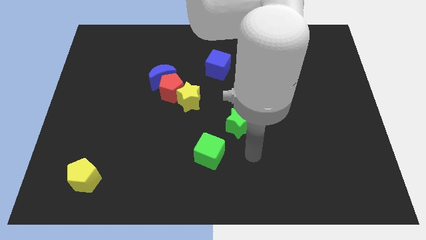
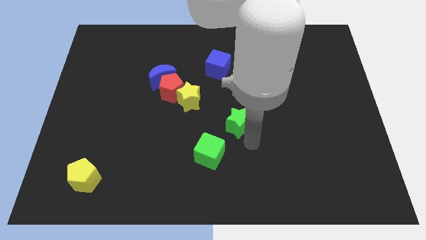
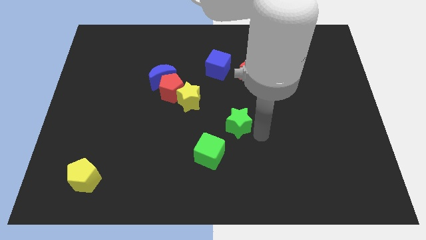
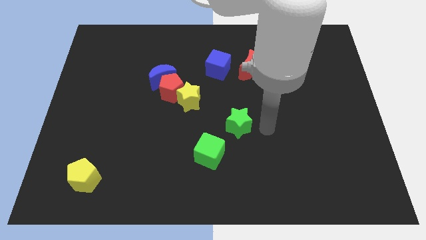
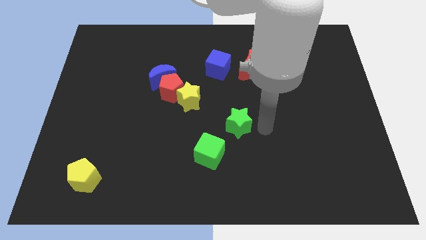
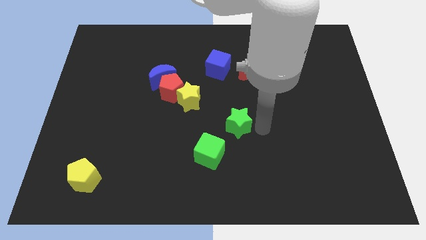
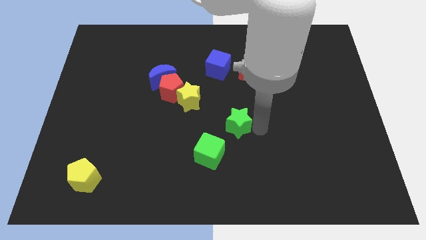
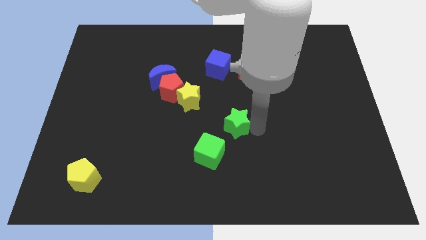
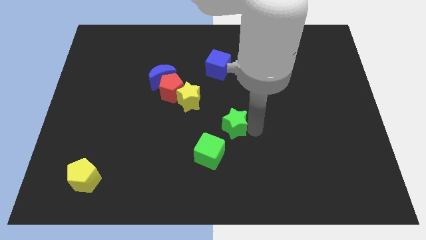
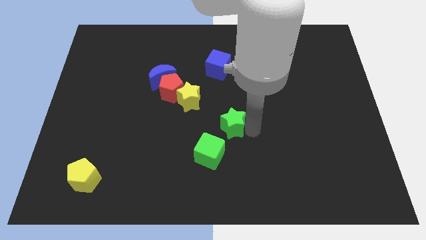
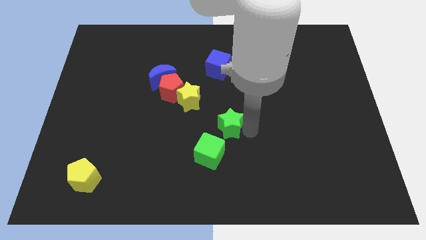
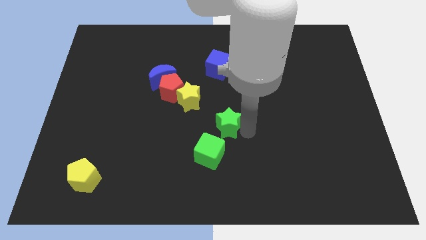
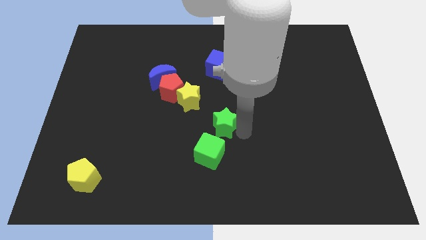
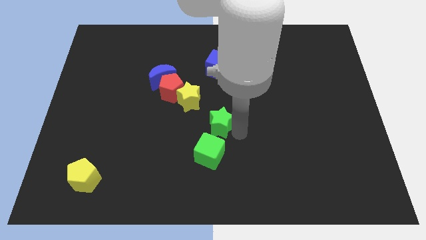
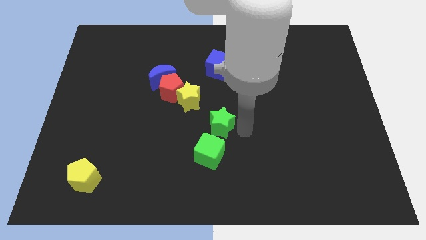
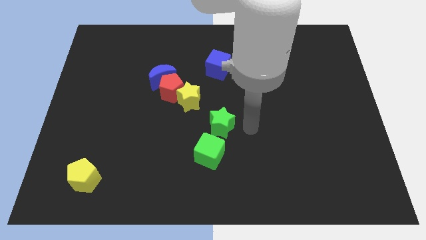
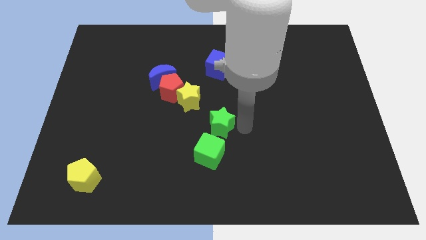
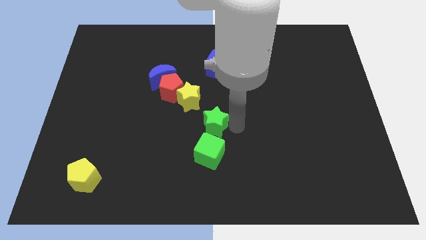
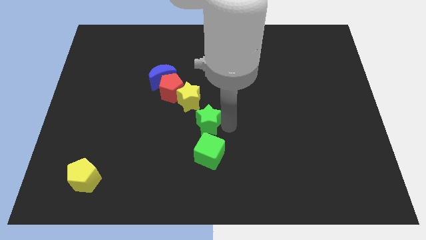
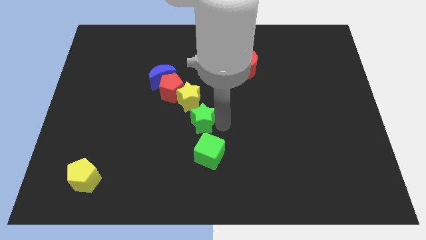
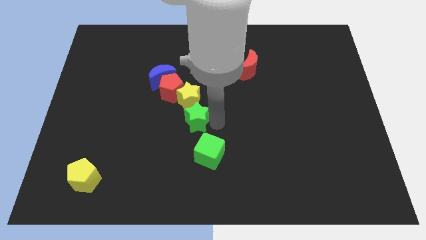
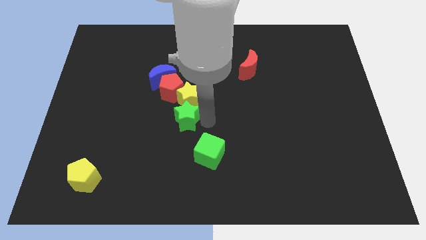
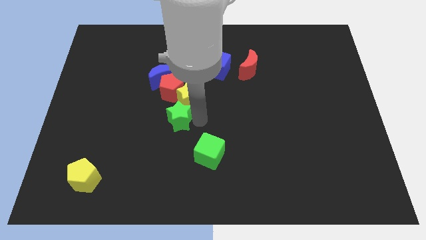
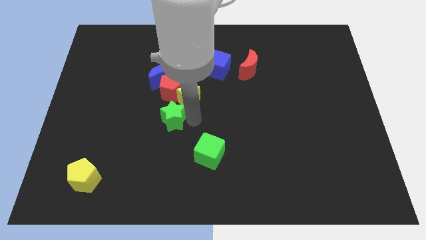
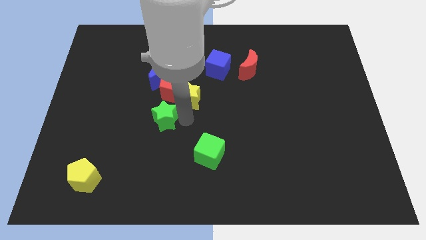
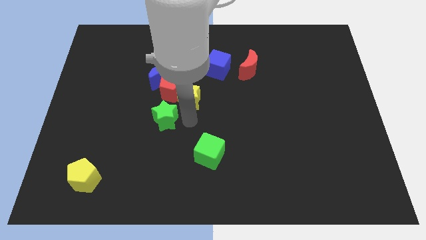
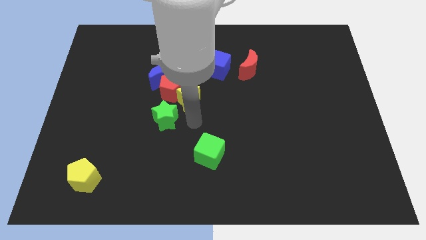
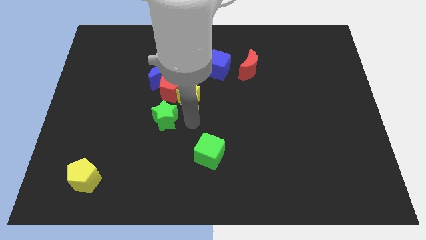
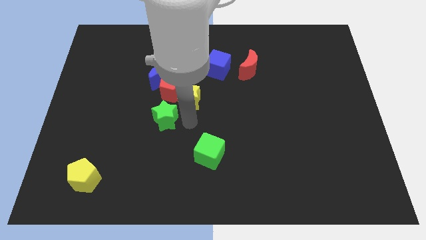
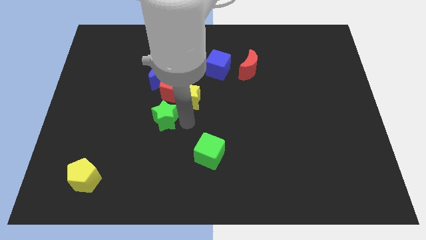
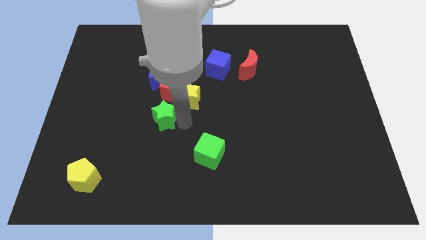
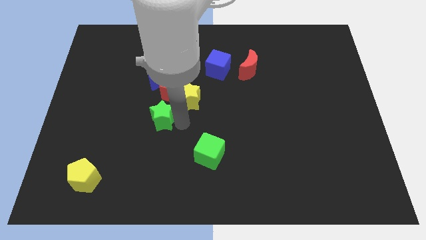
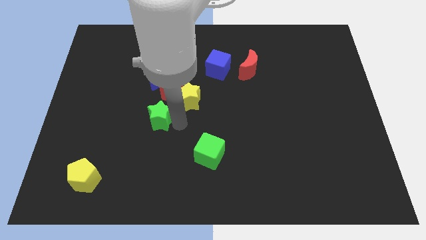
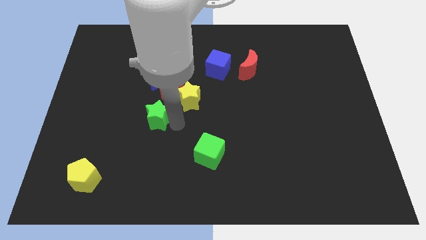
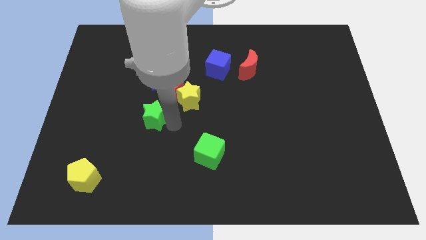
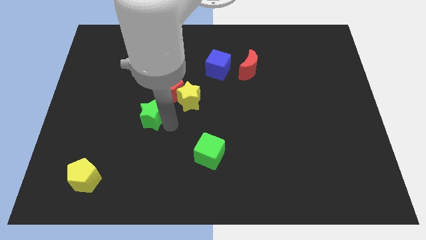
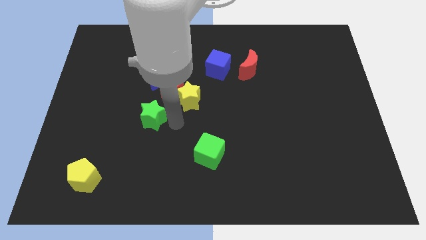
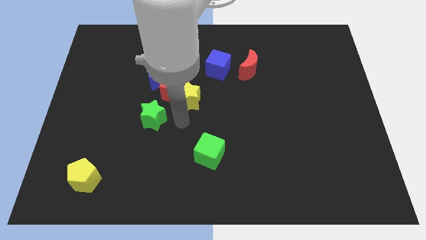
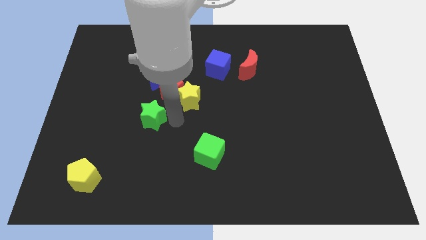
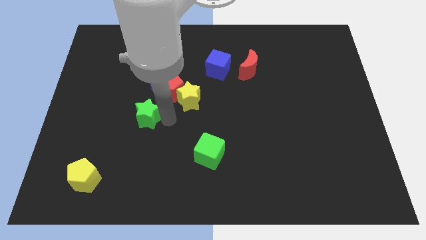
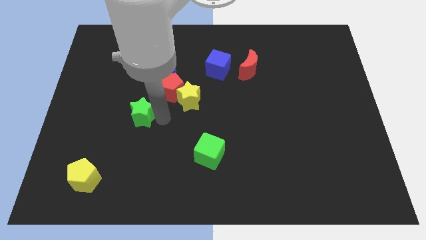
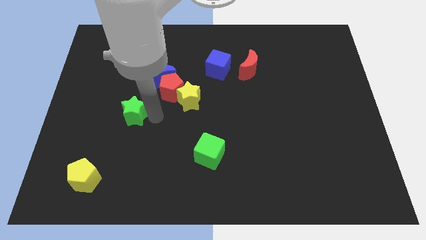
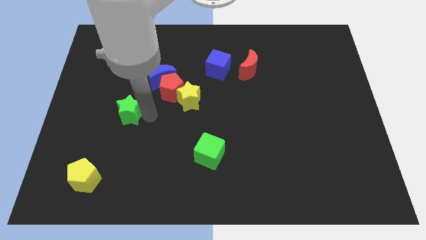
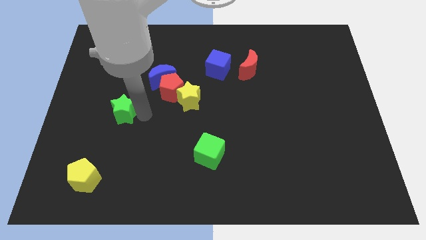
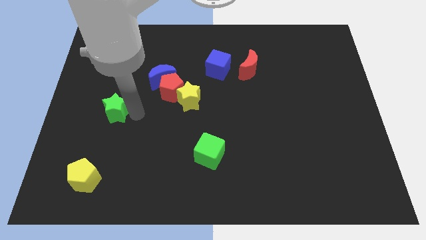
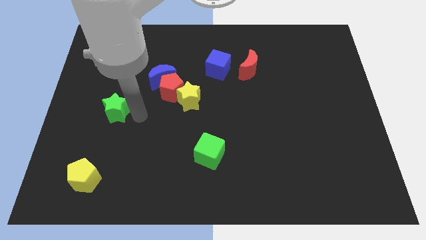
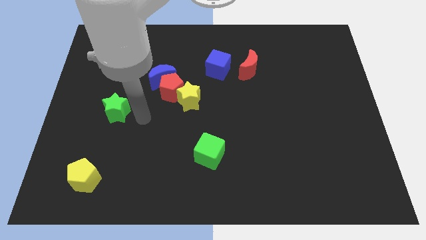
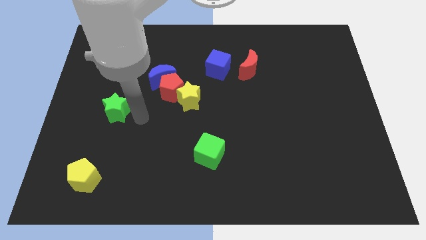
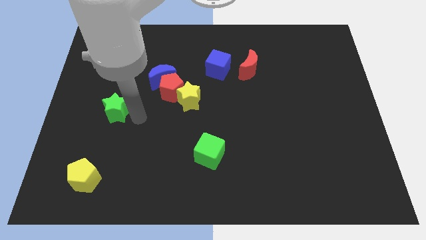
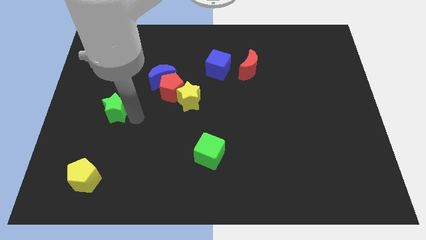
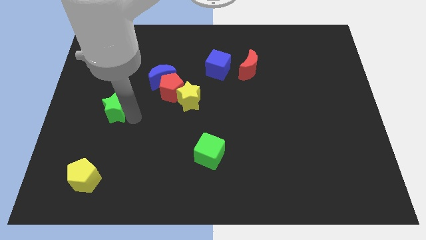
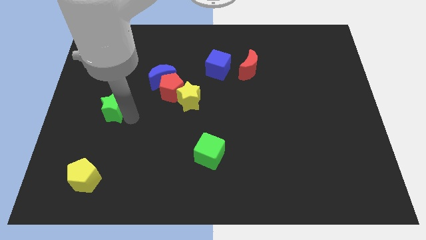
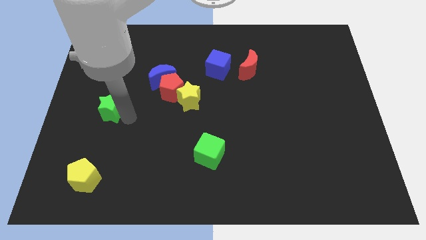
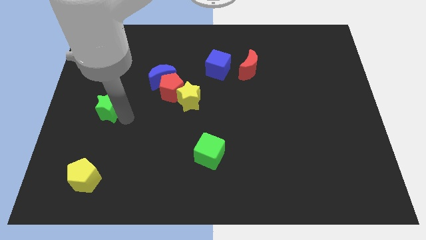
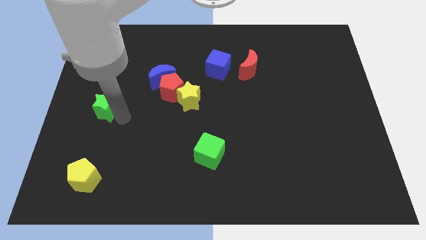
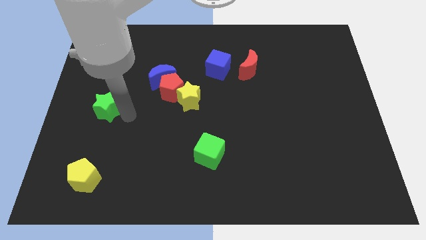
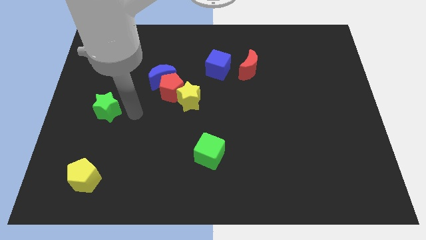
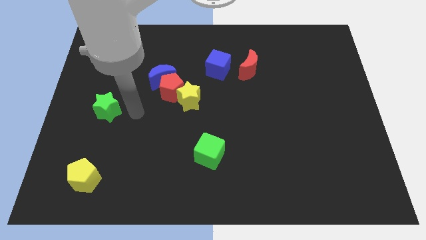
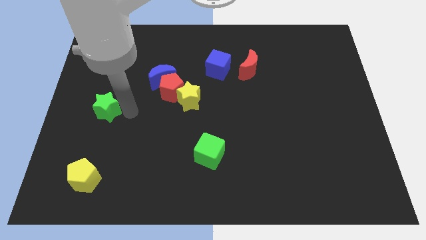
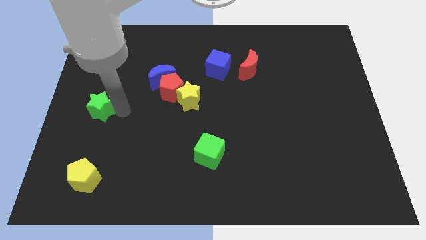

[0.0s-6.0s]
push the green star to the left side

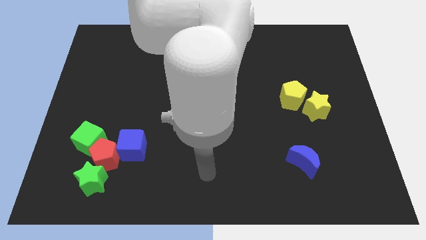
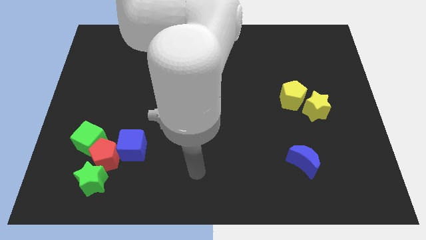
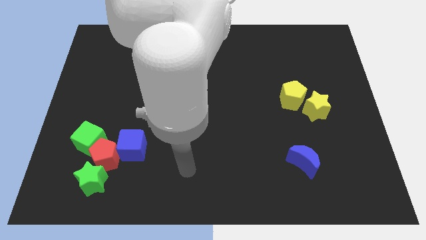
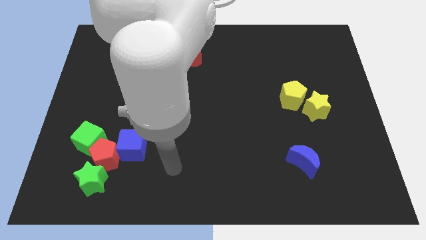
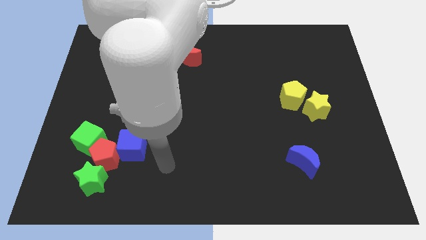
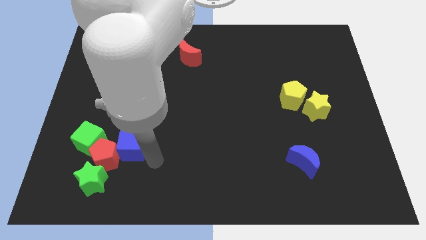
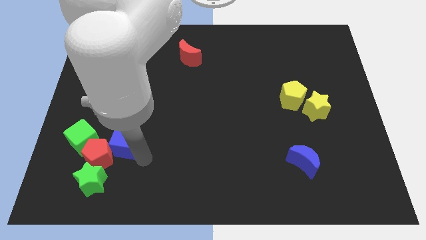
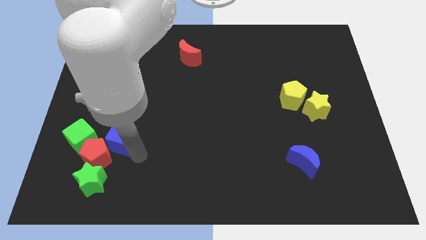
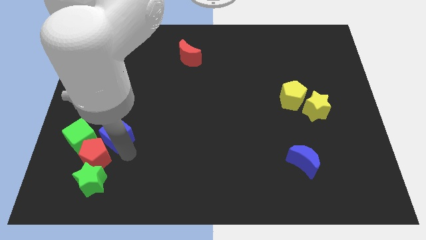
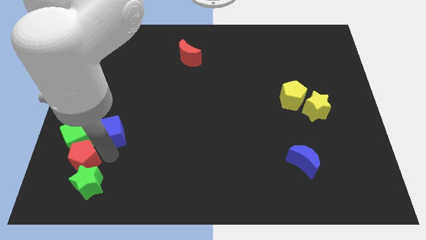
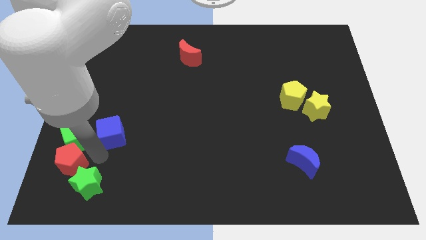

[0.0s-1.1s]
push the green cube to the left side
